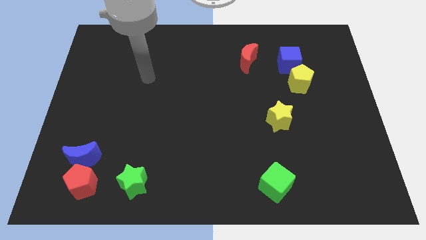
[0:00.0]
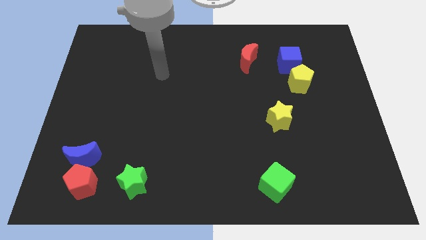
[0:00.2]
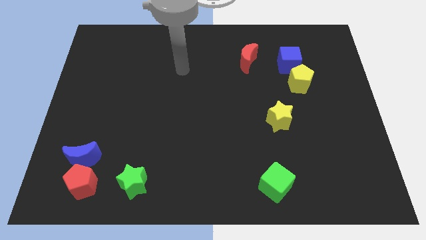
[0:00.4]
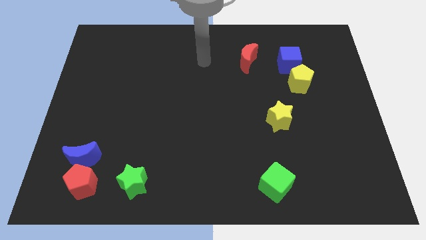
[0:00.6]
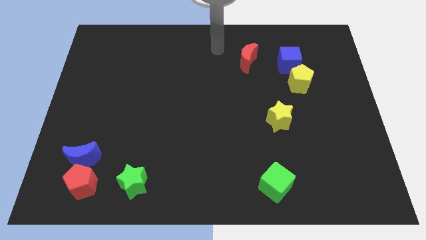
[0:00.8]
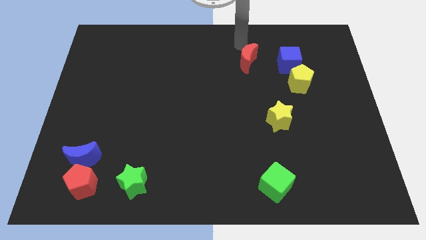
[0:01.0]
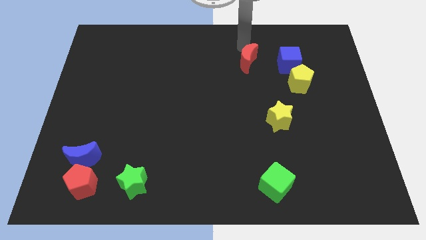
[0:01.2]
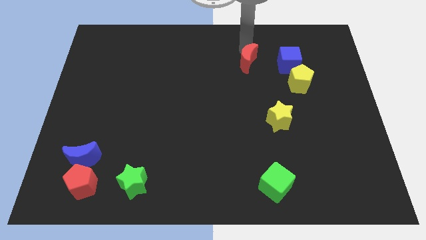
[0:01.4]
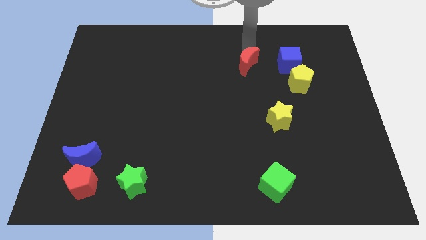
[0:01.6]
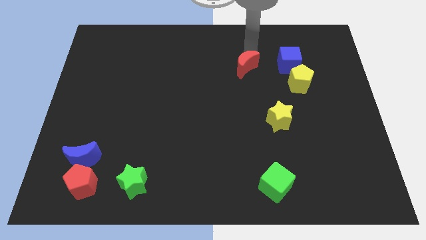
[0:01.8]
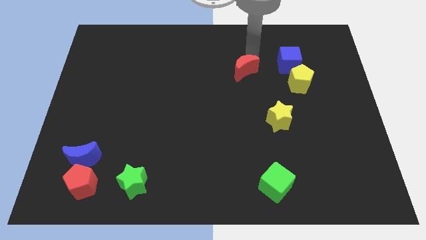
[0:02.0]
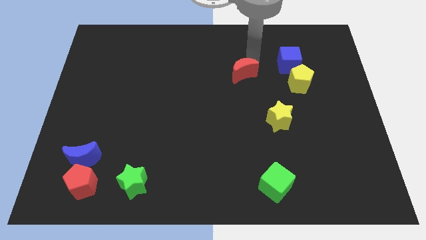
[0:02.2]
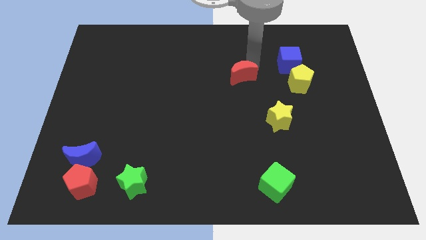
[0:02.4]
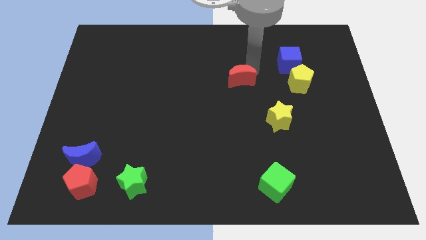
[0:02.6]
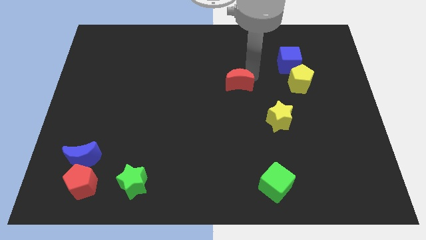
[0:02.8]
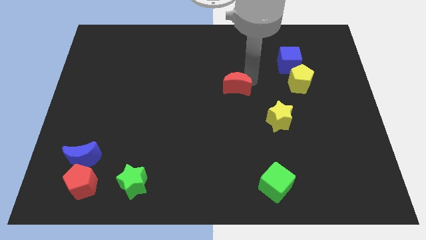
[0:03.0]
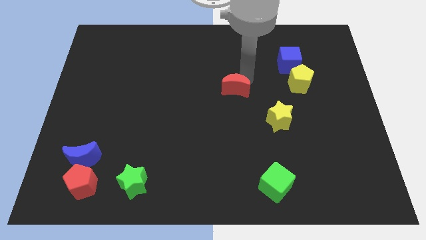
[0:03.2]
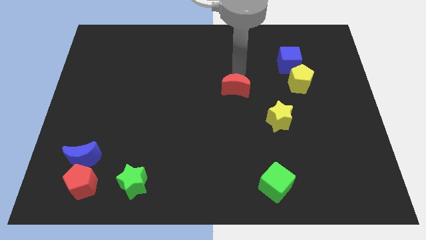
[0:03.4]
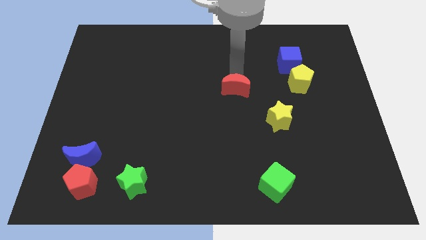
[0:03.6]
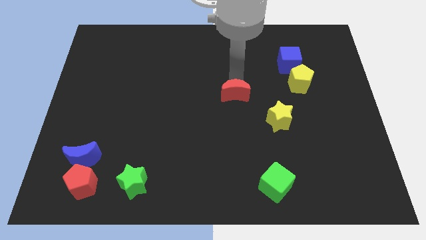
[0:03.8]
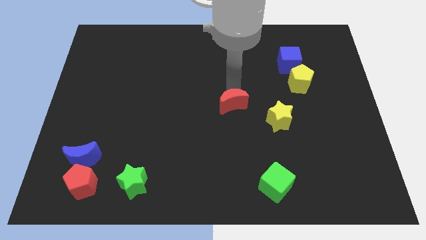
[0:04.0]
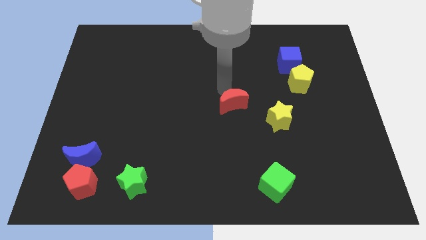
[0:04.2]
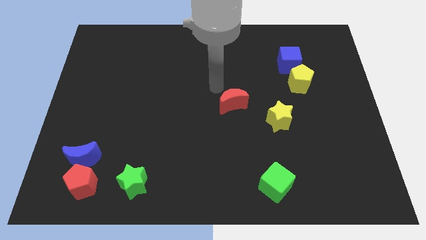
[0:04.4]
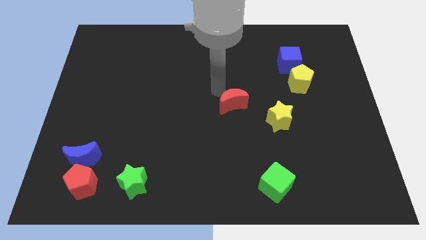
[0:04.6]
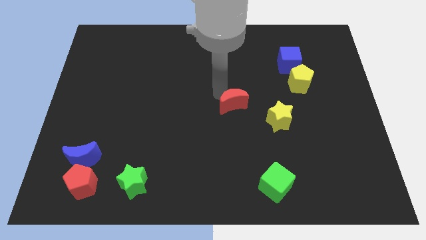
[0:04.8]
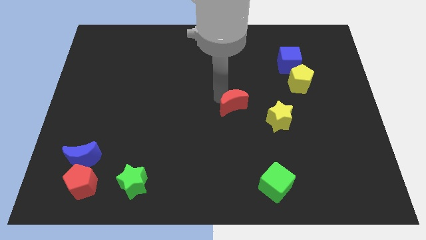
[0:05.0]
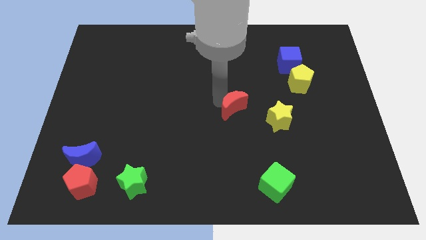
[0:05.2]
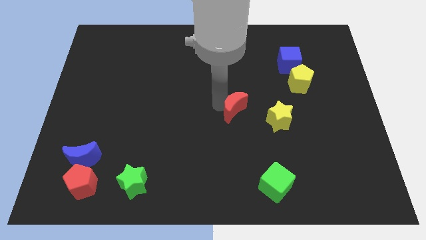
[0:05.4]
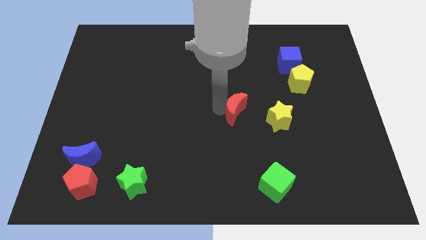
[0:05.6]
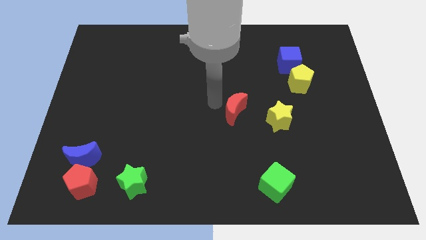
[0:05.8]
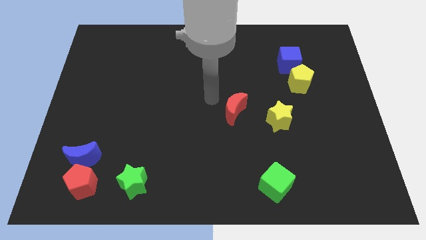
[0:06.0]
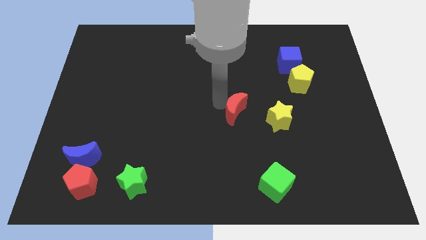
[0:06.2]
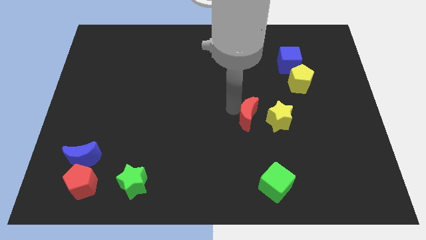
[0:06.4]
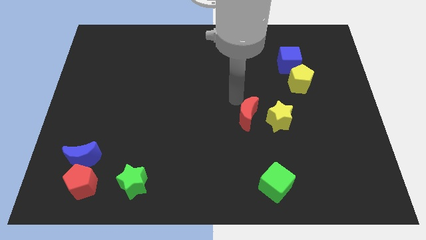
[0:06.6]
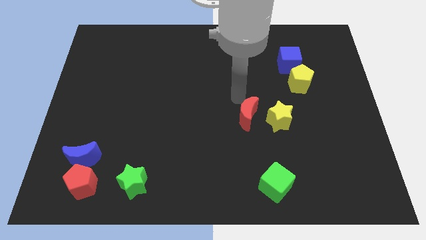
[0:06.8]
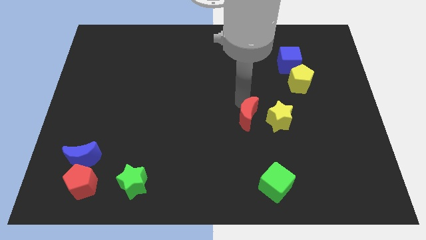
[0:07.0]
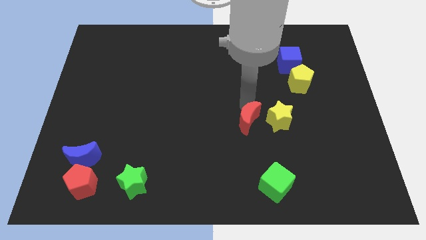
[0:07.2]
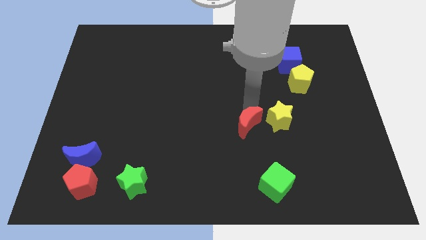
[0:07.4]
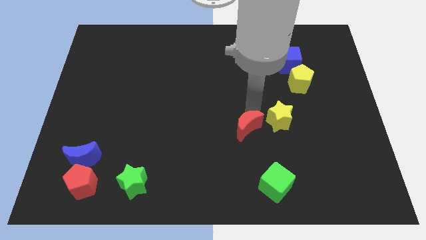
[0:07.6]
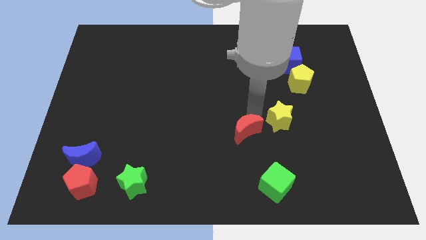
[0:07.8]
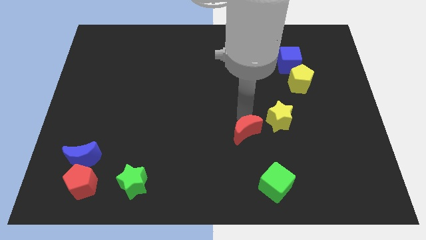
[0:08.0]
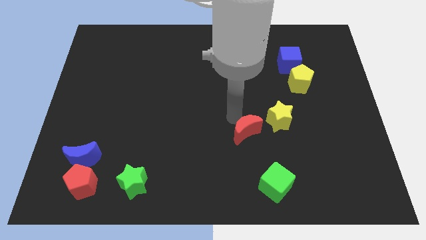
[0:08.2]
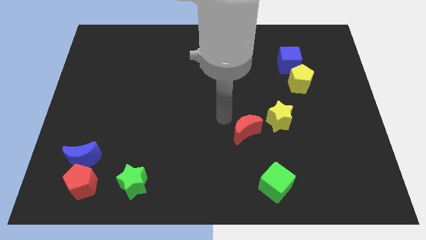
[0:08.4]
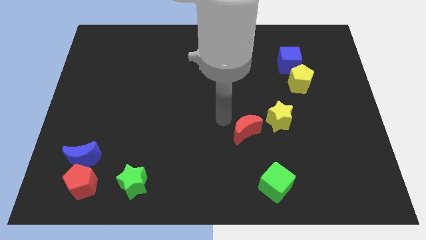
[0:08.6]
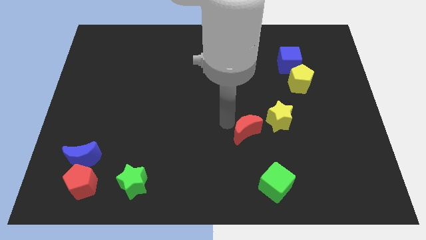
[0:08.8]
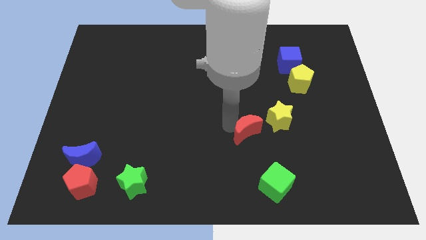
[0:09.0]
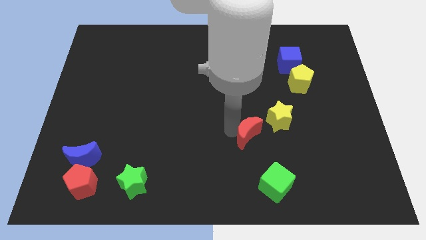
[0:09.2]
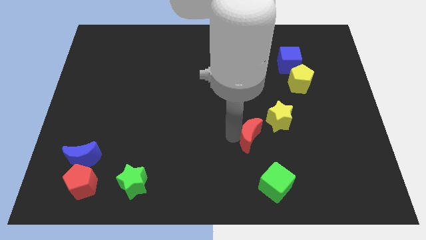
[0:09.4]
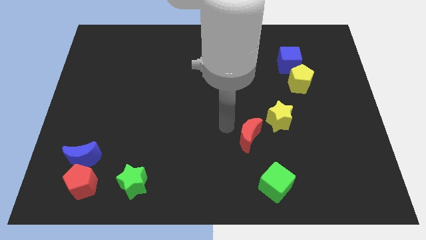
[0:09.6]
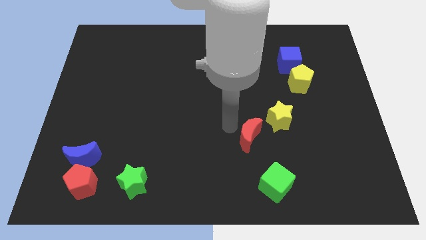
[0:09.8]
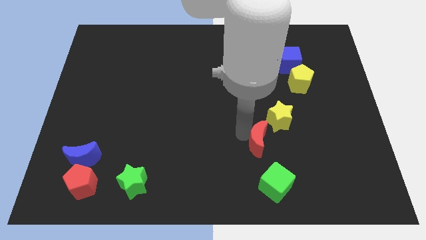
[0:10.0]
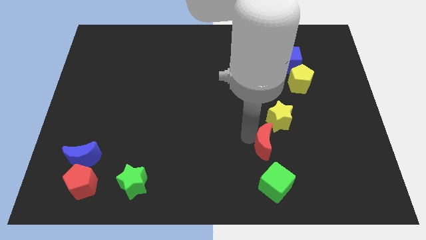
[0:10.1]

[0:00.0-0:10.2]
push the red moon below the yellow star
